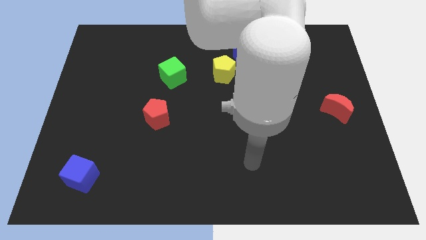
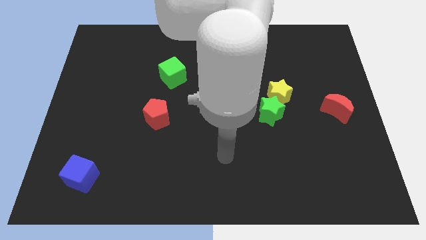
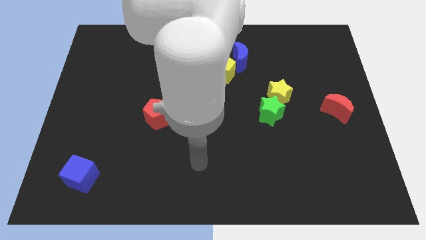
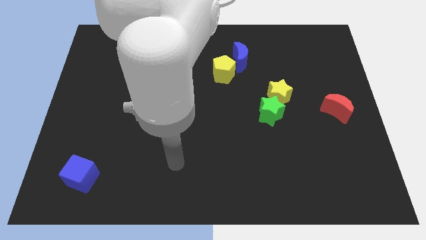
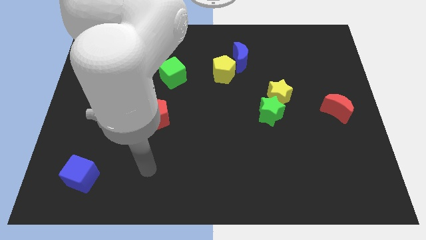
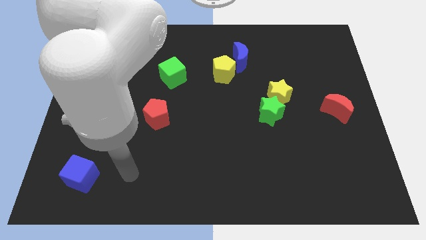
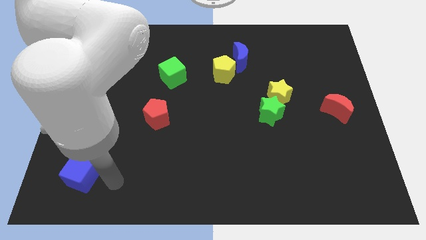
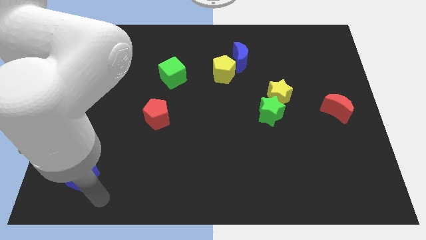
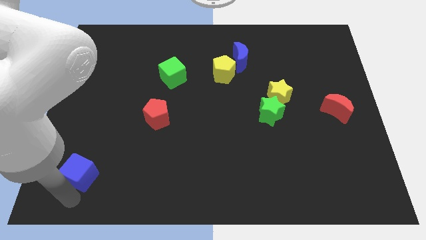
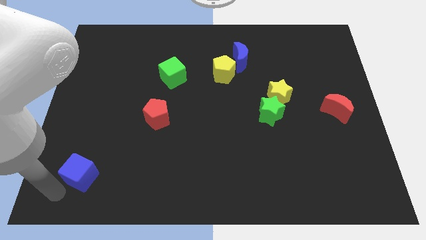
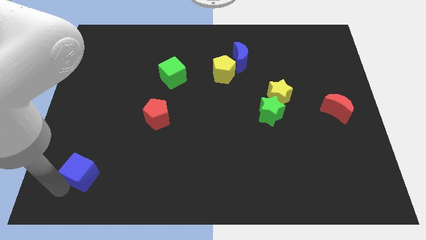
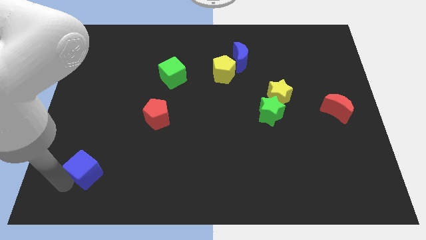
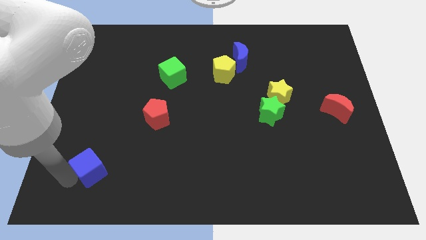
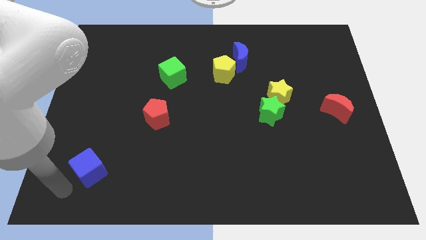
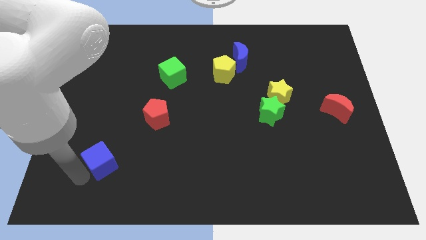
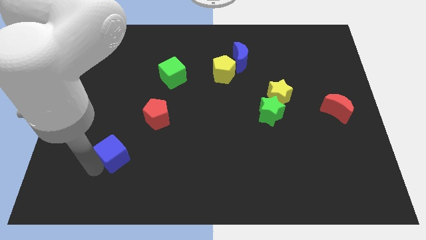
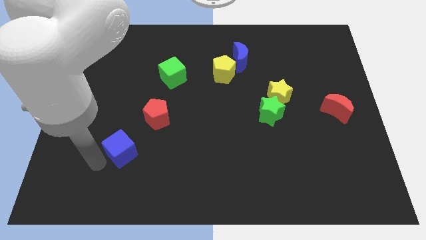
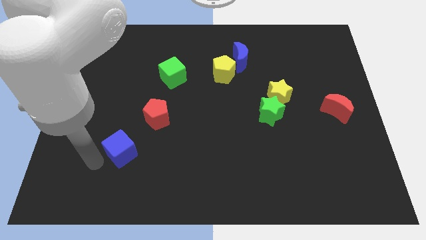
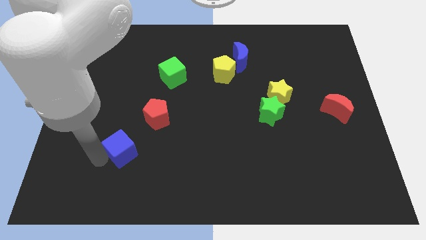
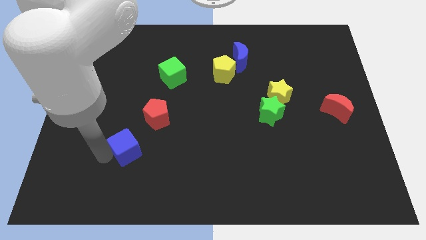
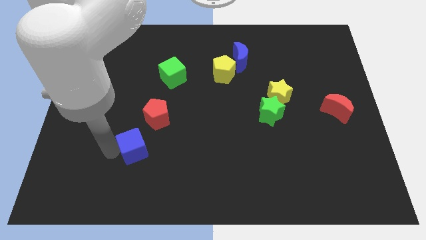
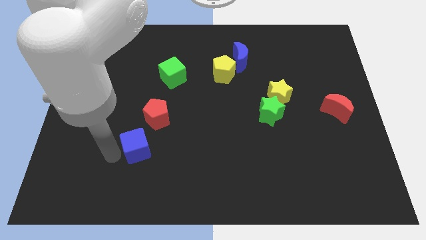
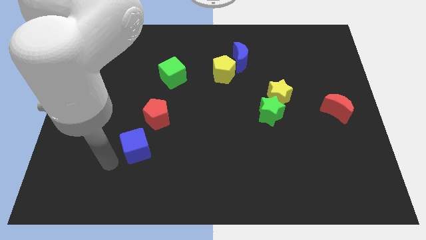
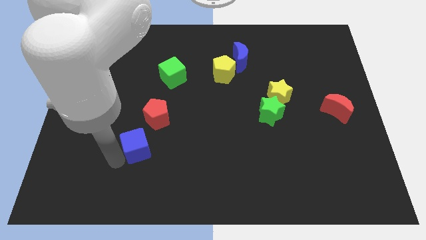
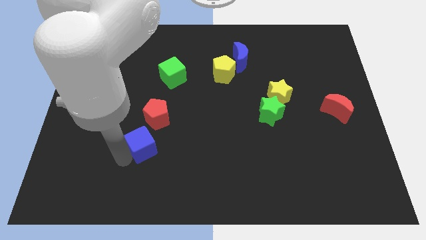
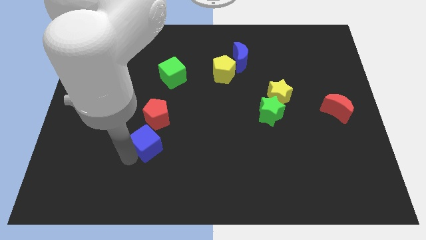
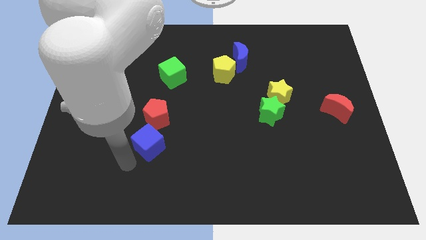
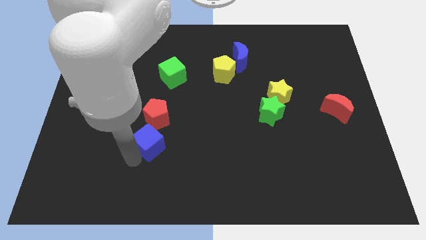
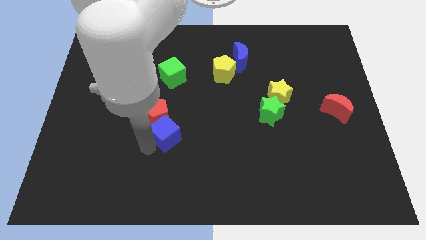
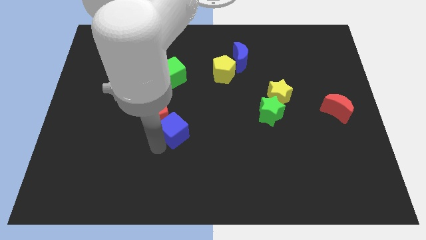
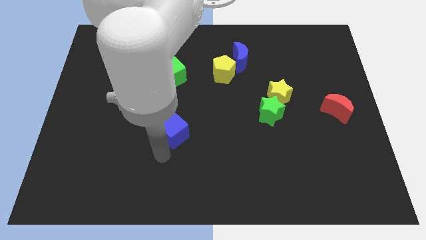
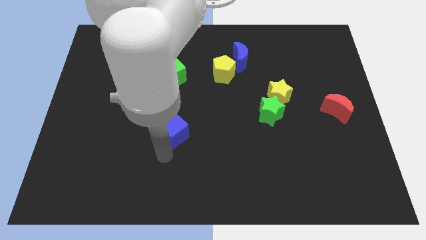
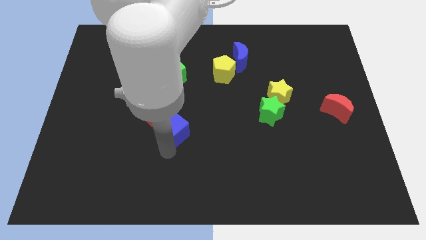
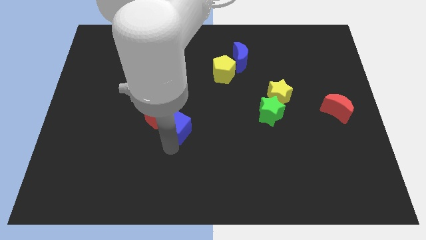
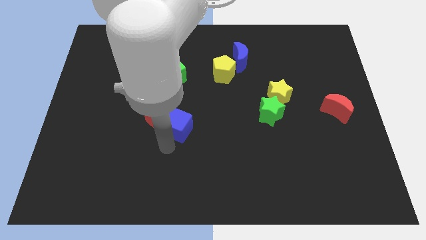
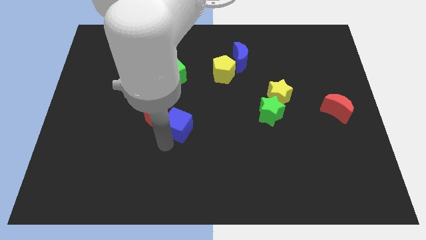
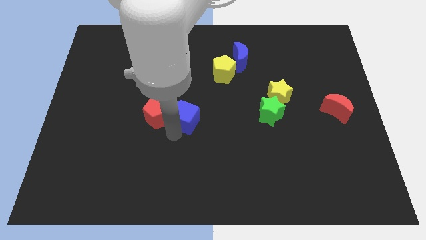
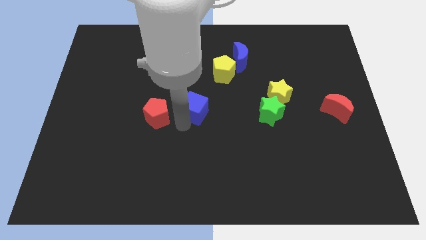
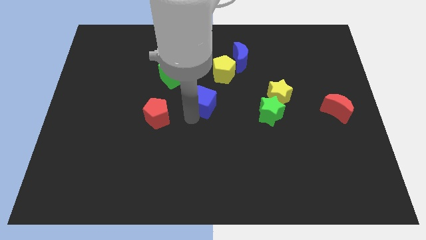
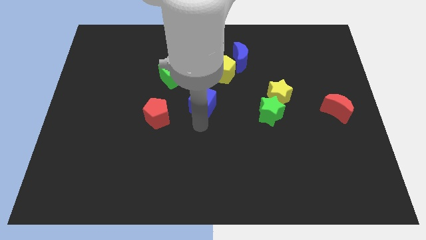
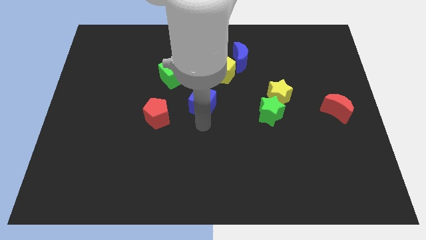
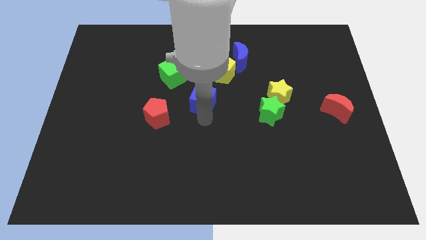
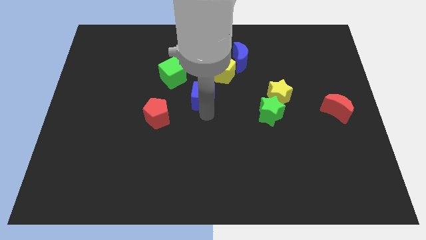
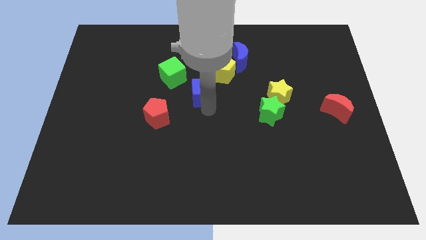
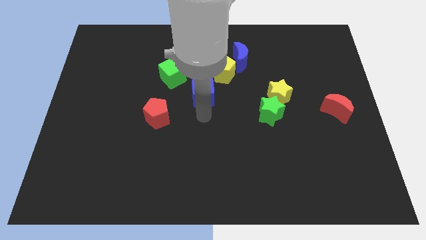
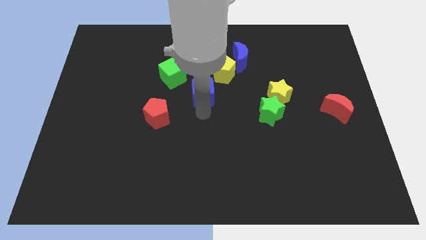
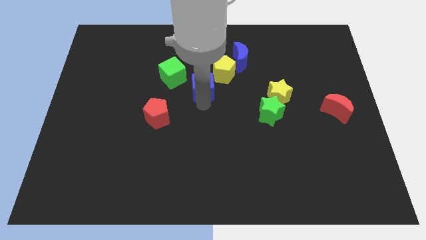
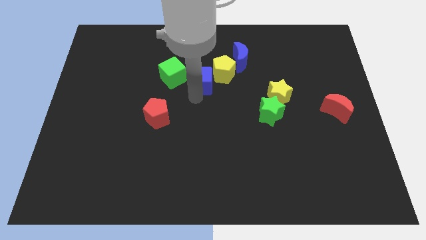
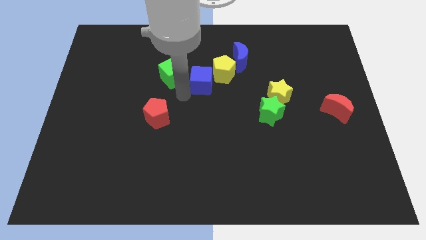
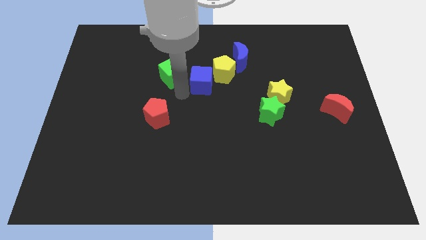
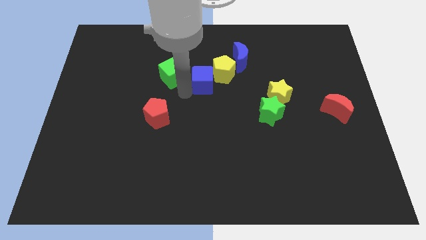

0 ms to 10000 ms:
slide the blue cube next to the yellow pentagon

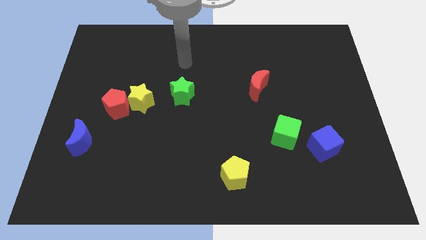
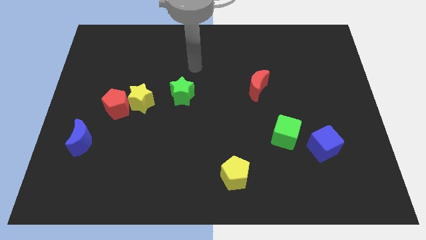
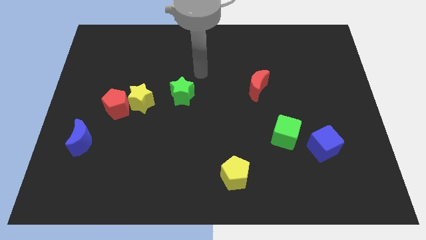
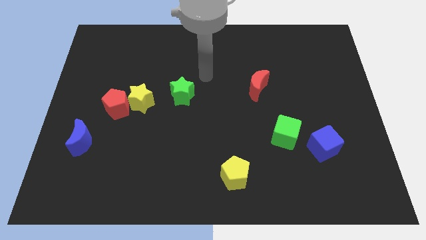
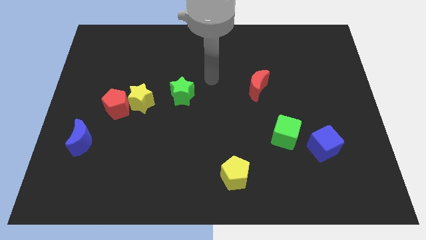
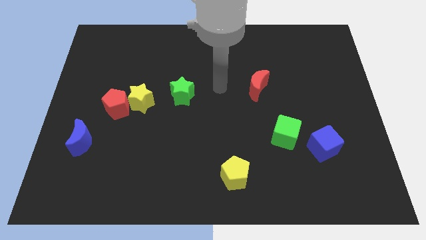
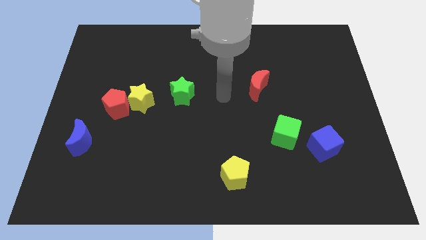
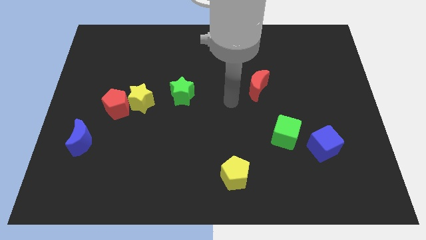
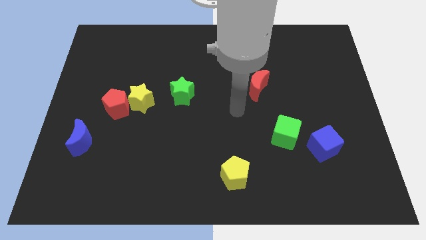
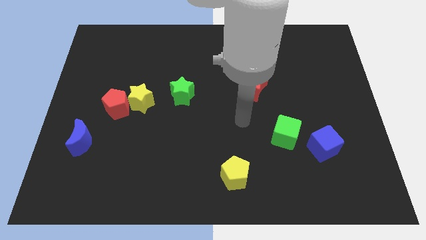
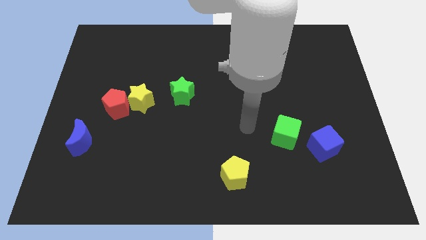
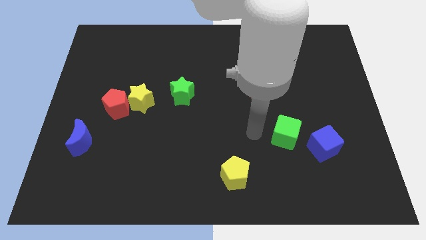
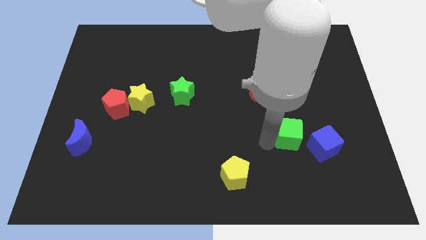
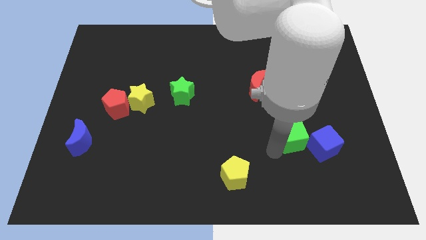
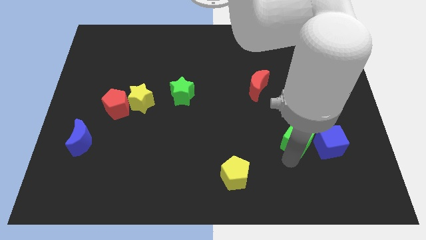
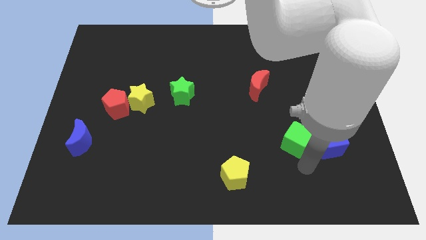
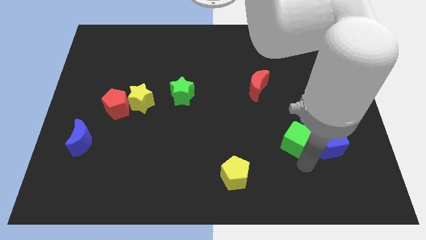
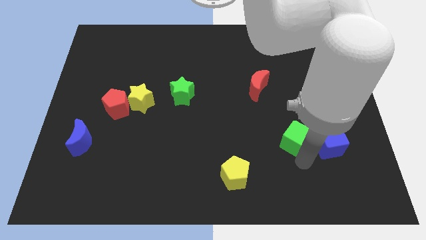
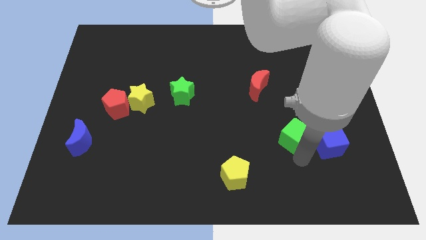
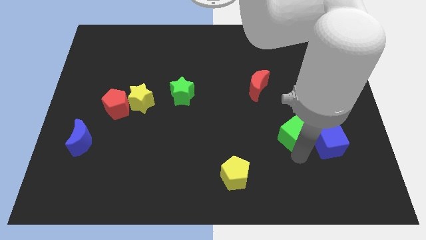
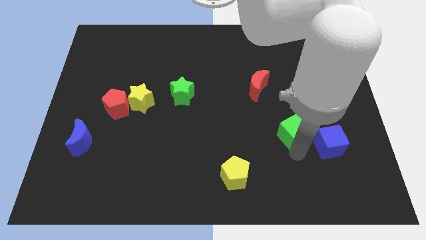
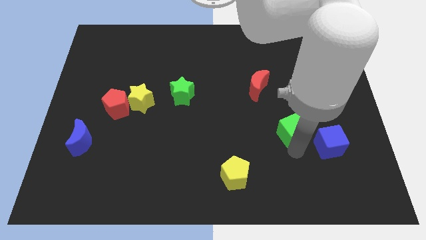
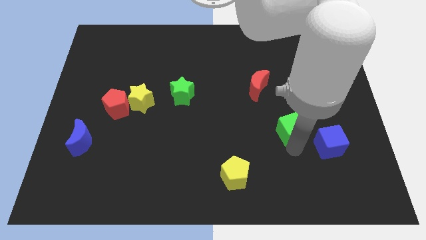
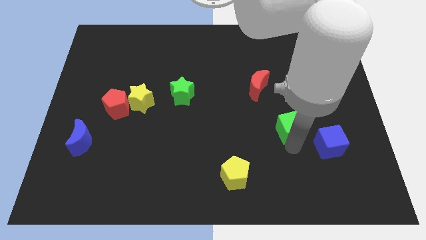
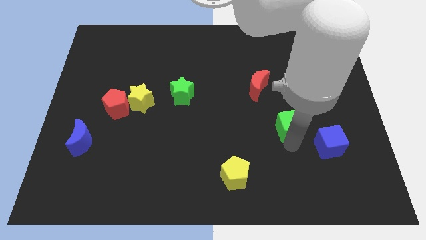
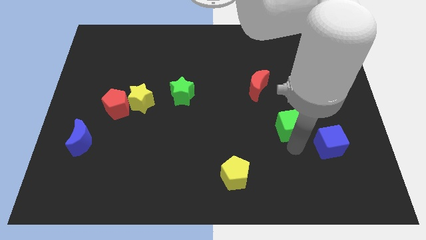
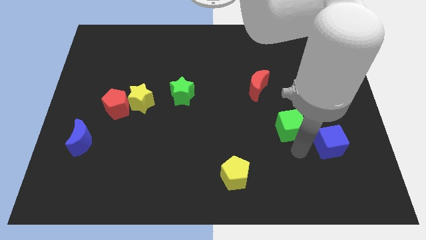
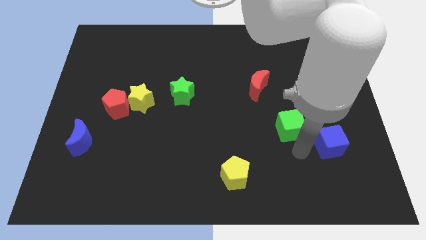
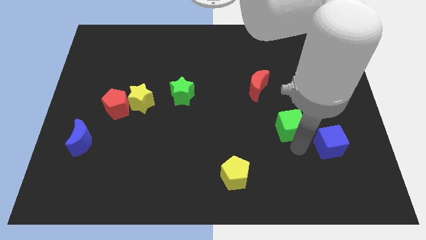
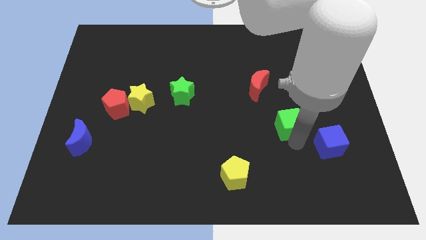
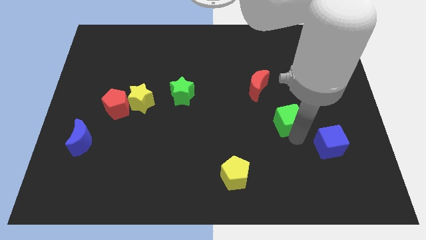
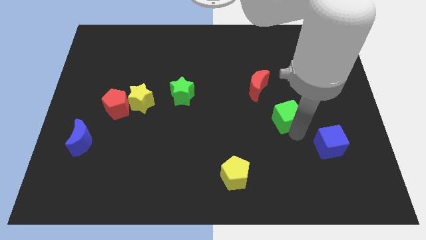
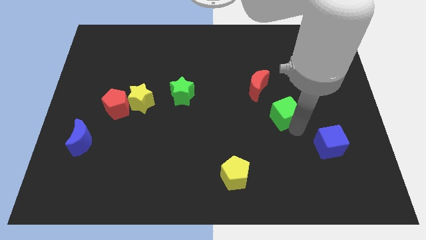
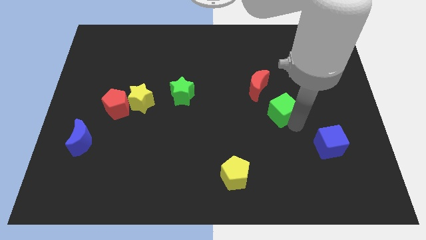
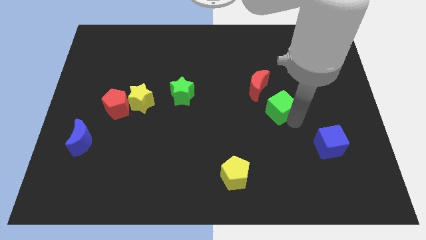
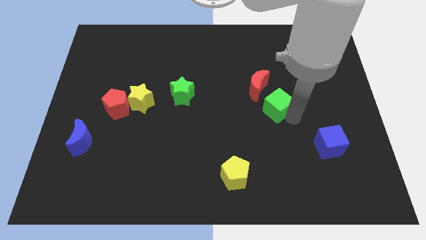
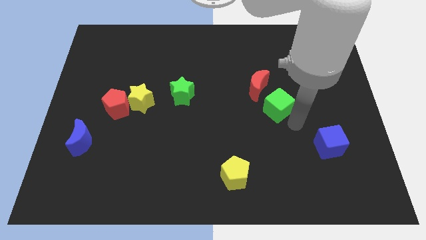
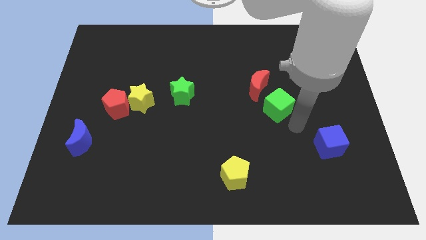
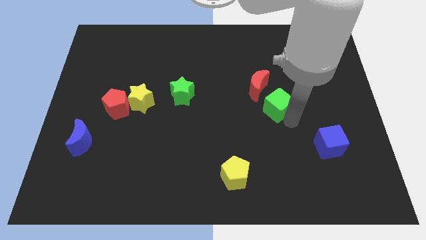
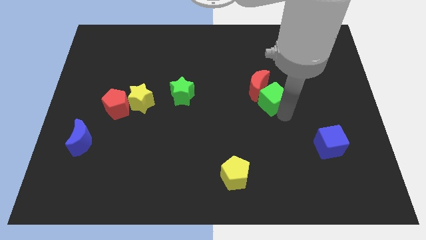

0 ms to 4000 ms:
slide the green cube close to the red moon
